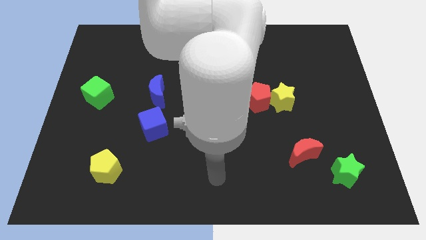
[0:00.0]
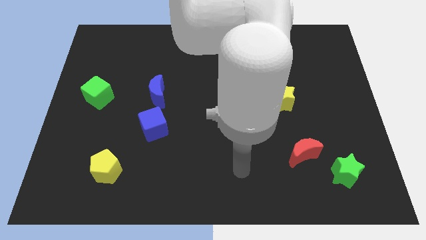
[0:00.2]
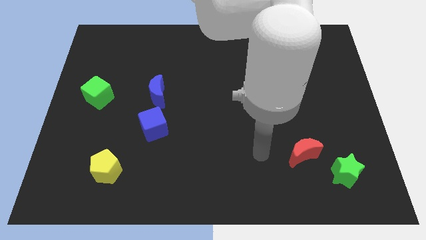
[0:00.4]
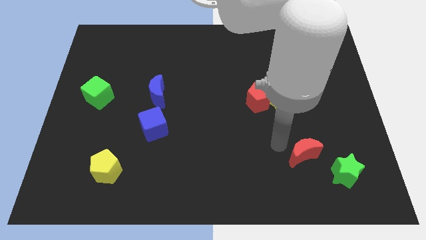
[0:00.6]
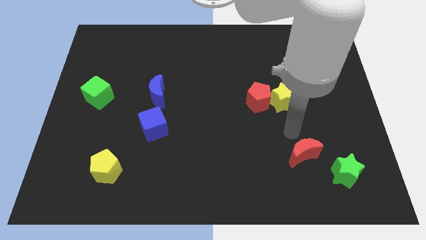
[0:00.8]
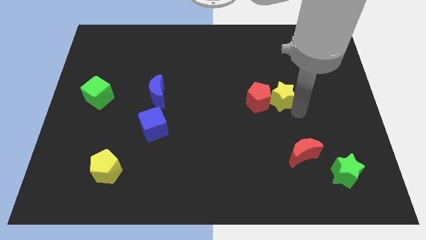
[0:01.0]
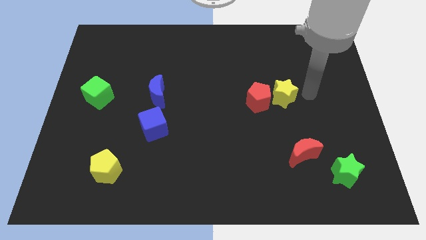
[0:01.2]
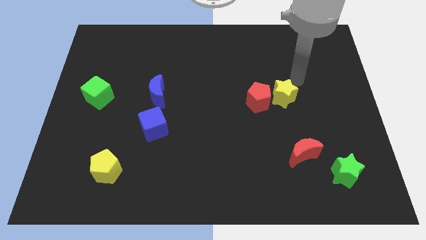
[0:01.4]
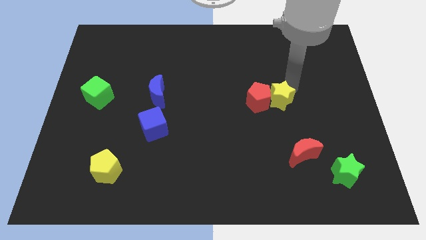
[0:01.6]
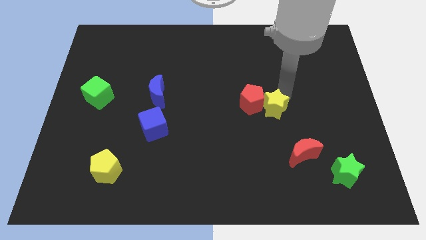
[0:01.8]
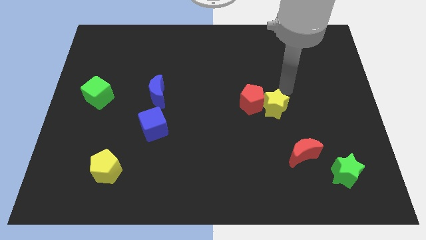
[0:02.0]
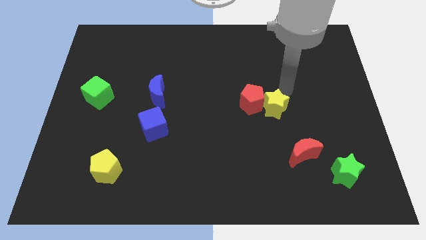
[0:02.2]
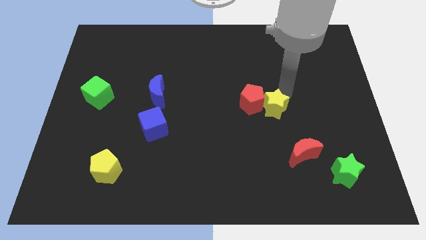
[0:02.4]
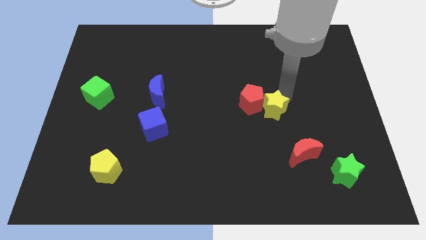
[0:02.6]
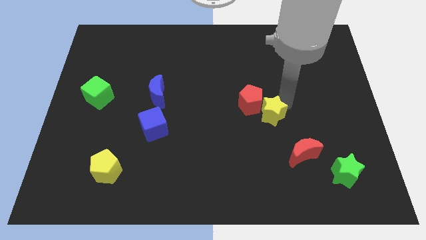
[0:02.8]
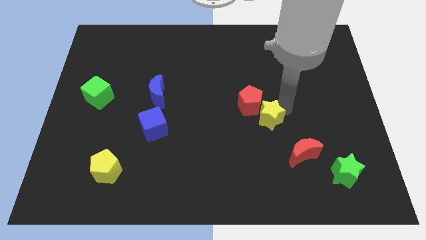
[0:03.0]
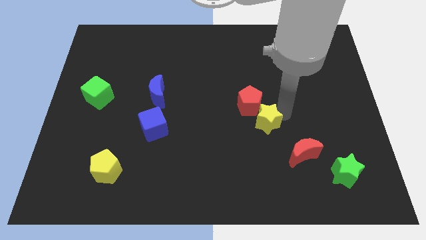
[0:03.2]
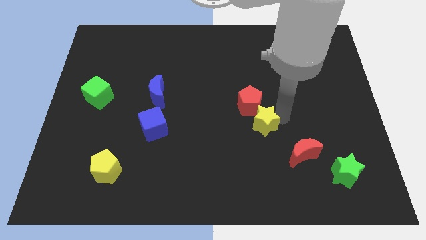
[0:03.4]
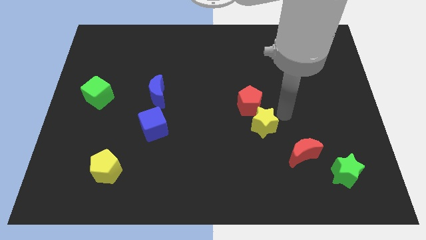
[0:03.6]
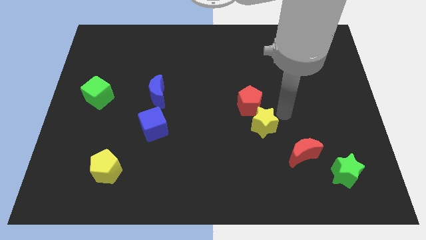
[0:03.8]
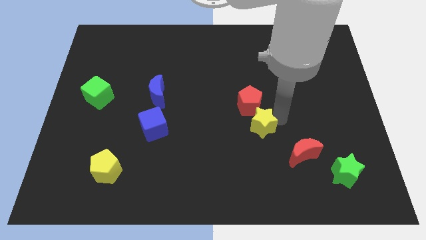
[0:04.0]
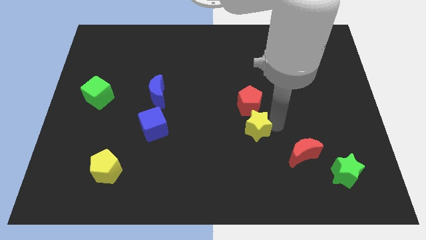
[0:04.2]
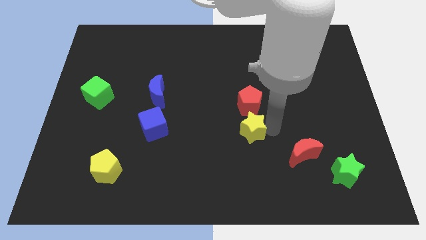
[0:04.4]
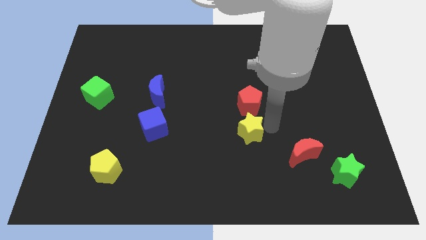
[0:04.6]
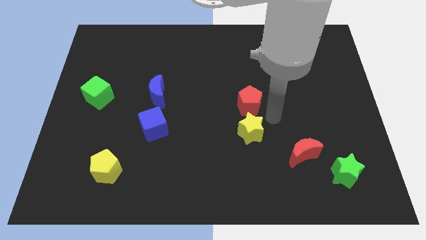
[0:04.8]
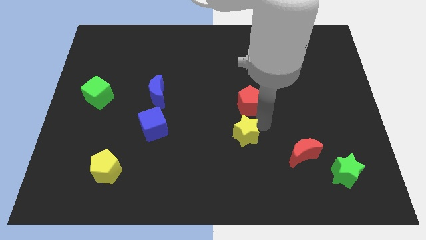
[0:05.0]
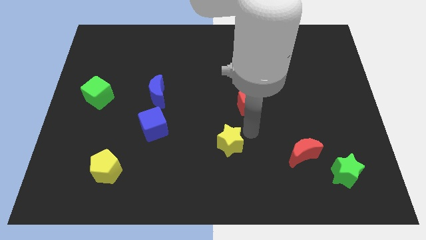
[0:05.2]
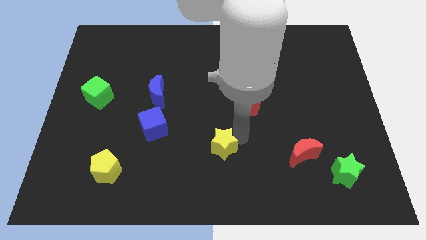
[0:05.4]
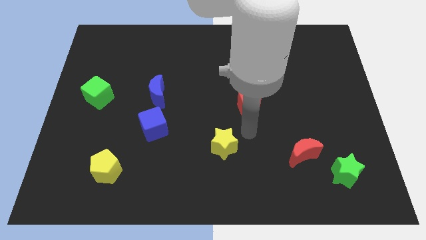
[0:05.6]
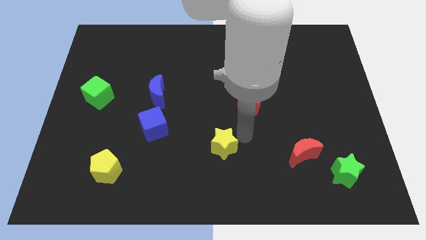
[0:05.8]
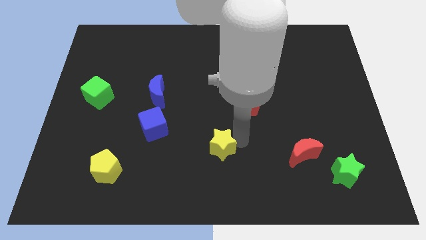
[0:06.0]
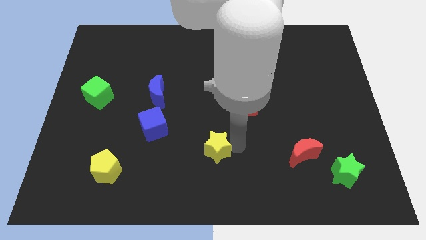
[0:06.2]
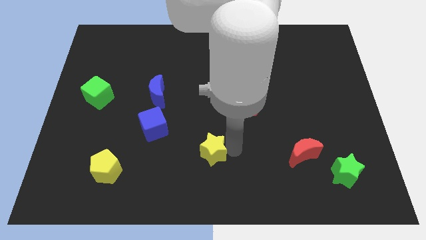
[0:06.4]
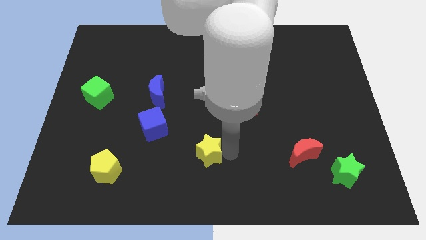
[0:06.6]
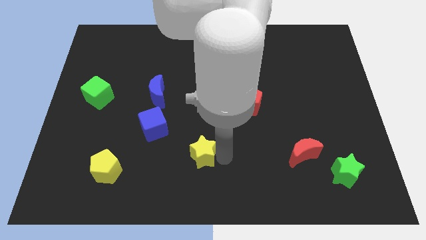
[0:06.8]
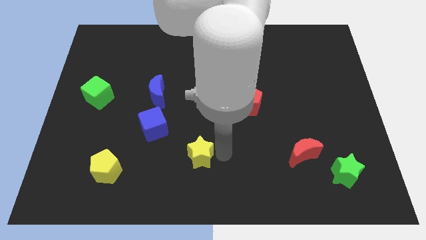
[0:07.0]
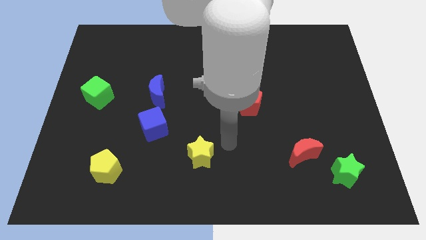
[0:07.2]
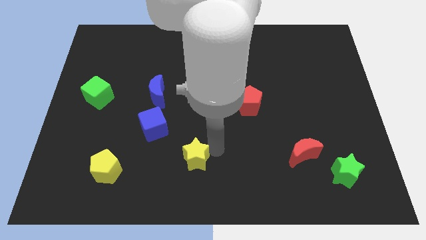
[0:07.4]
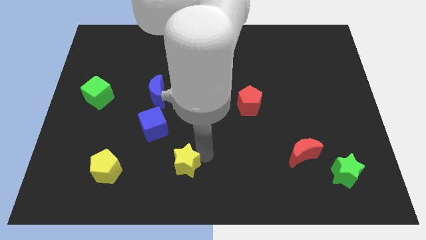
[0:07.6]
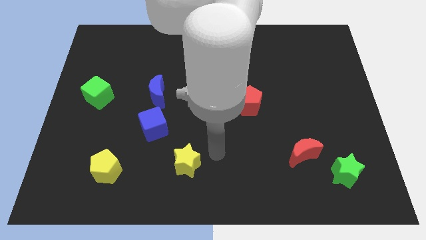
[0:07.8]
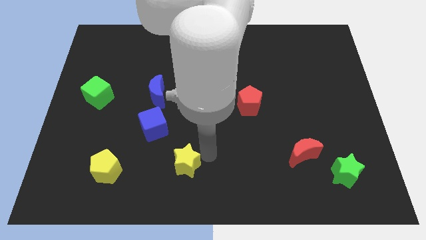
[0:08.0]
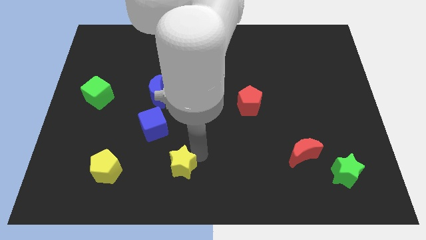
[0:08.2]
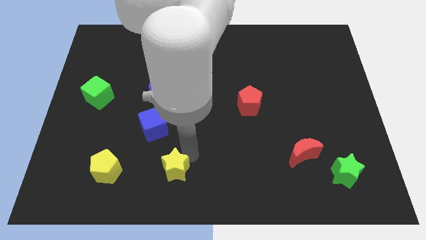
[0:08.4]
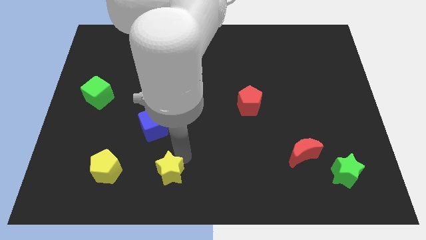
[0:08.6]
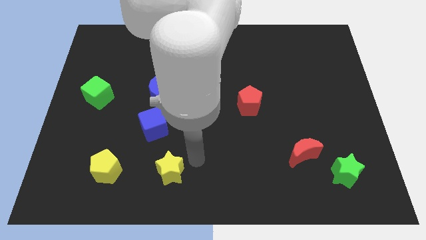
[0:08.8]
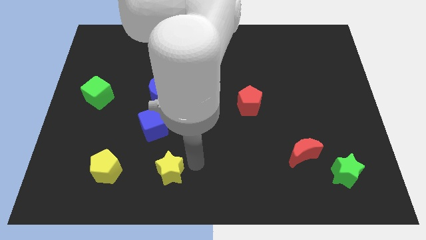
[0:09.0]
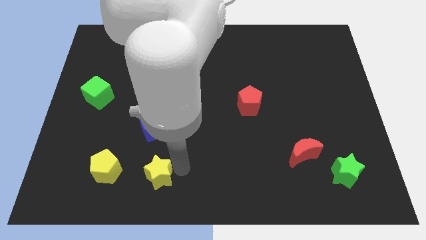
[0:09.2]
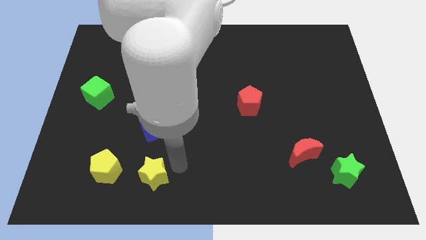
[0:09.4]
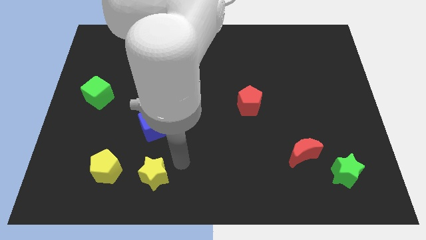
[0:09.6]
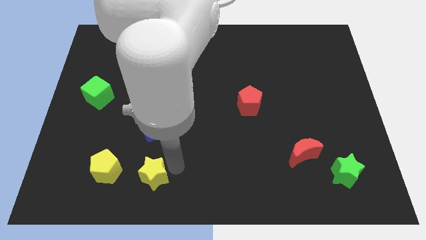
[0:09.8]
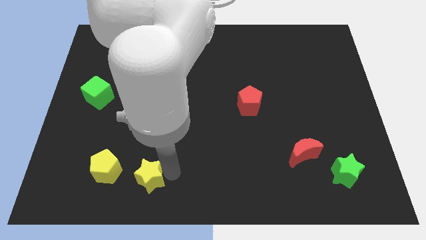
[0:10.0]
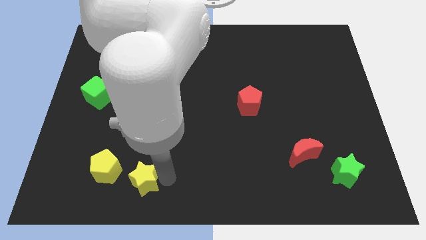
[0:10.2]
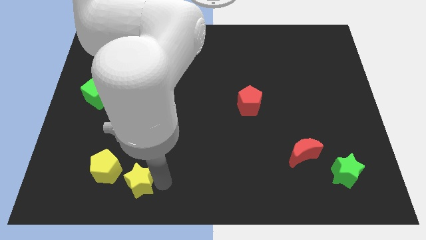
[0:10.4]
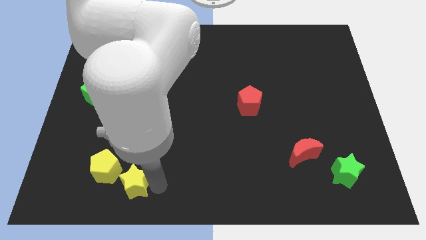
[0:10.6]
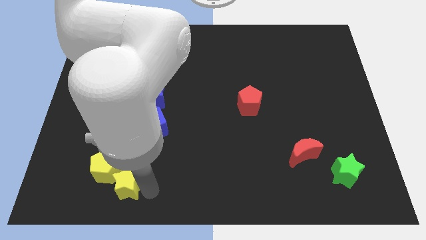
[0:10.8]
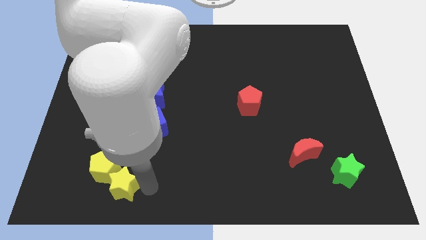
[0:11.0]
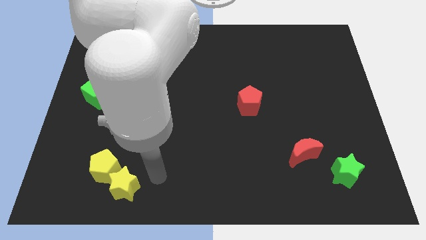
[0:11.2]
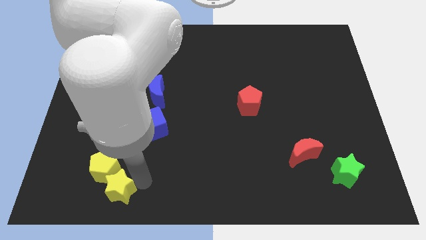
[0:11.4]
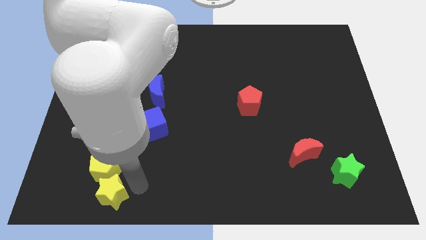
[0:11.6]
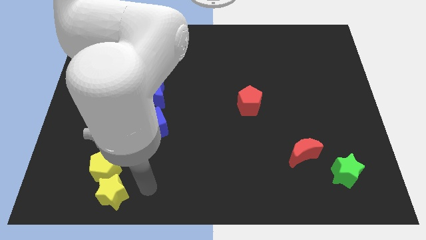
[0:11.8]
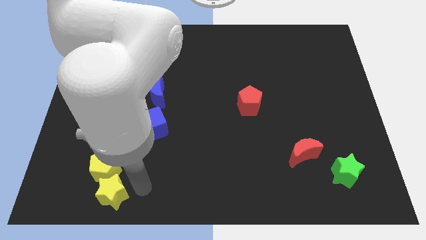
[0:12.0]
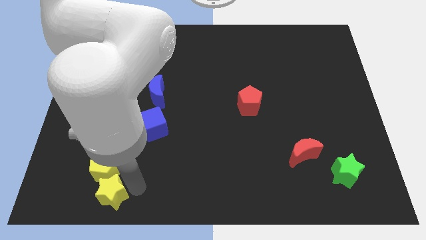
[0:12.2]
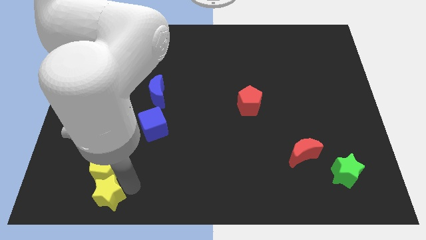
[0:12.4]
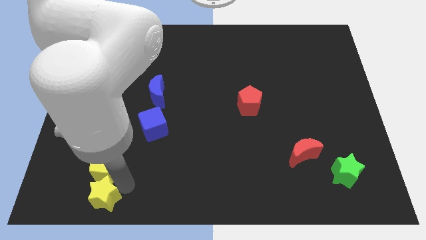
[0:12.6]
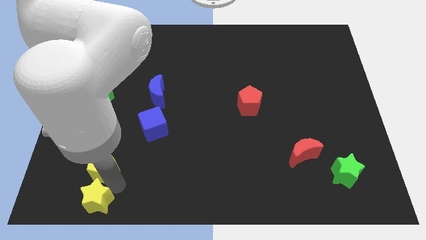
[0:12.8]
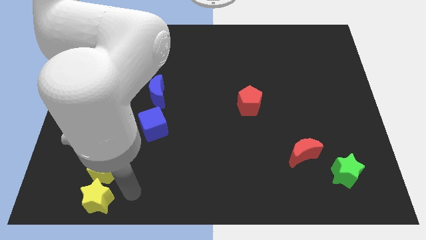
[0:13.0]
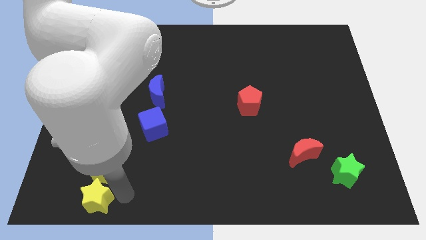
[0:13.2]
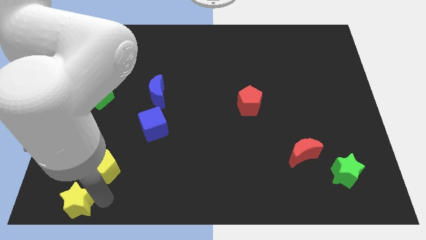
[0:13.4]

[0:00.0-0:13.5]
move the yellow star to the lower left corner
